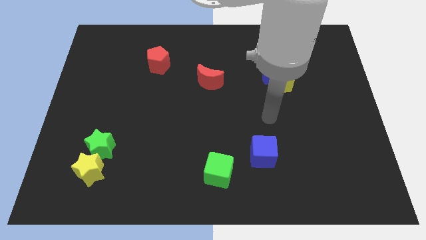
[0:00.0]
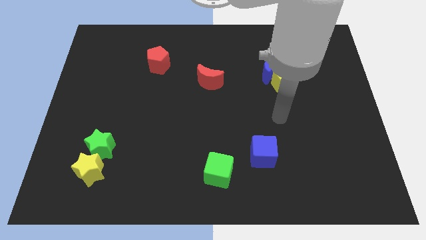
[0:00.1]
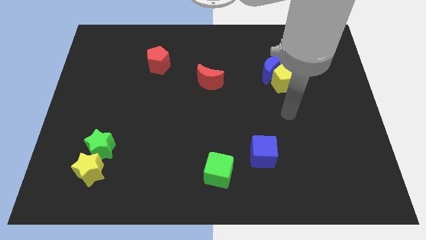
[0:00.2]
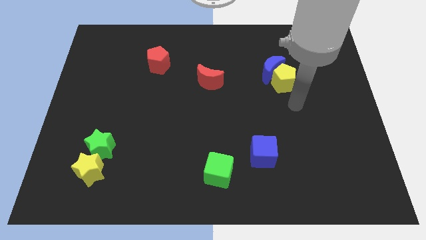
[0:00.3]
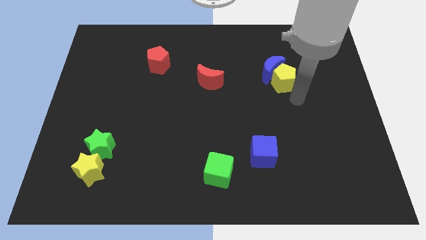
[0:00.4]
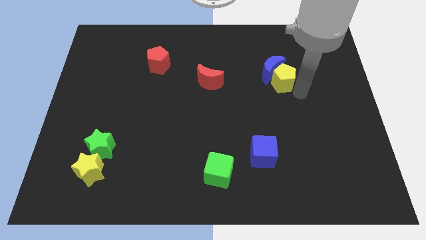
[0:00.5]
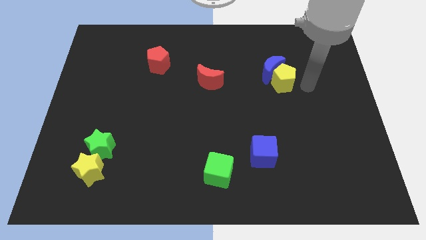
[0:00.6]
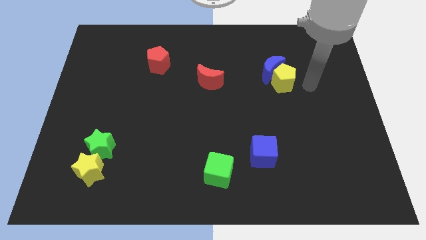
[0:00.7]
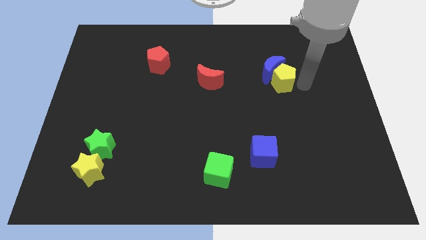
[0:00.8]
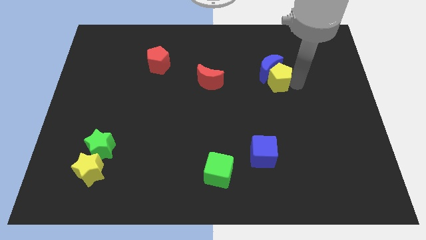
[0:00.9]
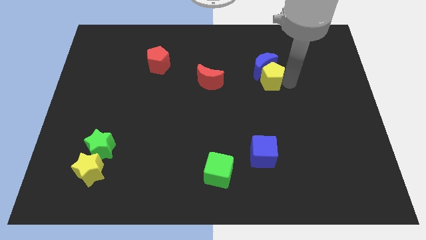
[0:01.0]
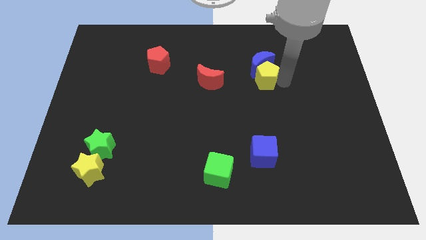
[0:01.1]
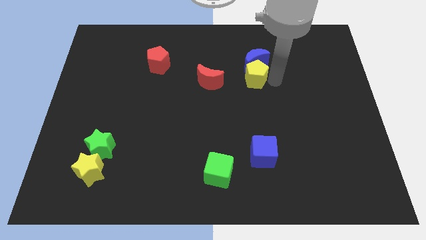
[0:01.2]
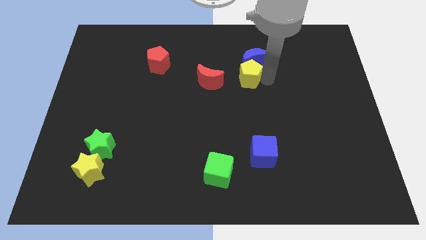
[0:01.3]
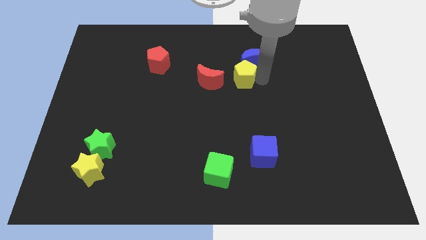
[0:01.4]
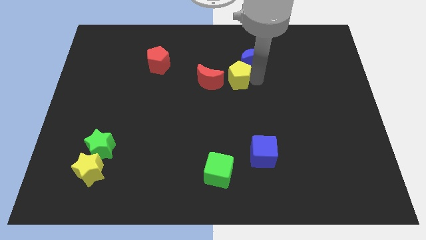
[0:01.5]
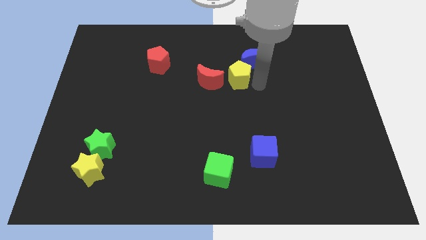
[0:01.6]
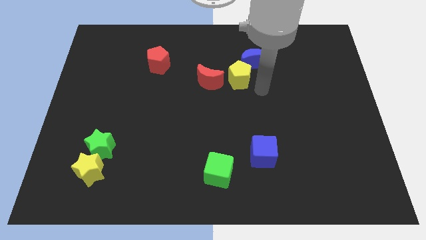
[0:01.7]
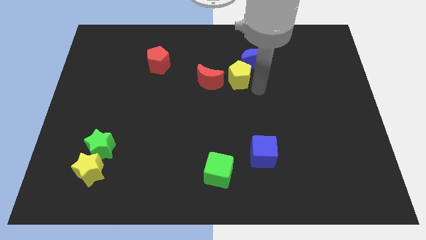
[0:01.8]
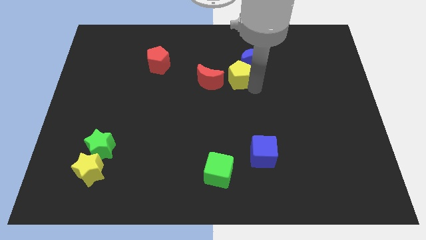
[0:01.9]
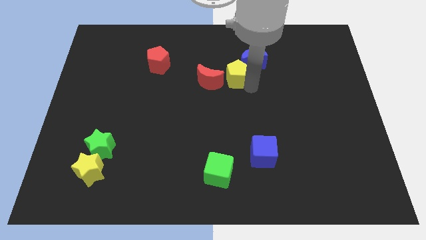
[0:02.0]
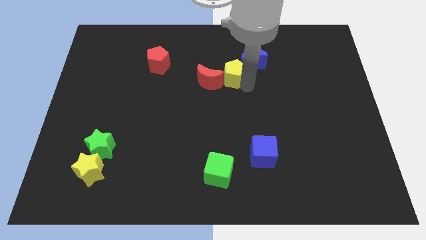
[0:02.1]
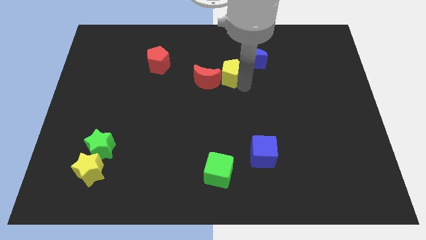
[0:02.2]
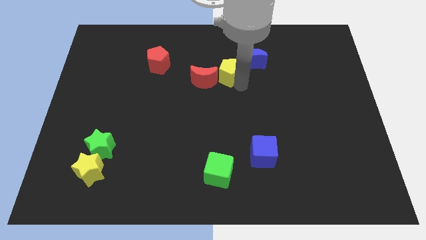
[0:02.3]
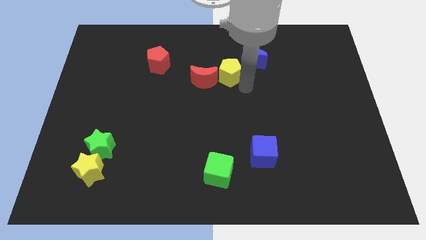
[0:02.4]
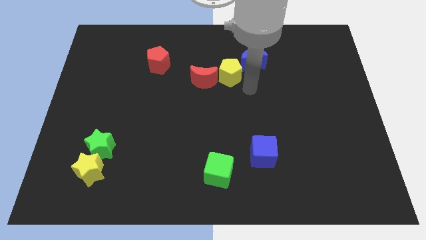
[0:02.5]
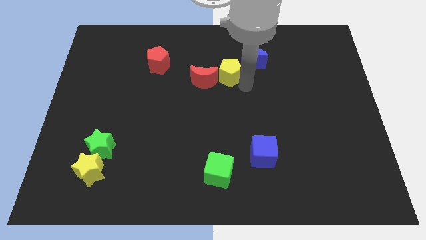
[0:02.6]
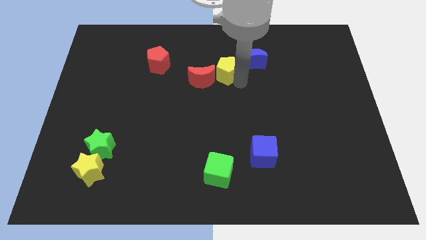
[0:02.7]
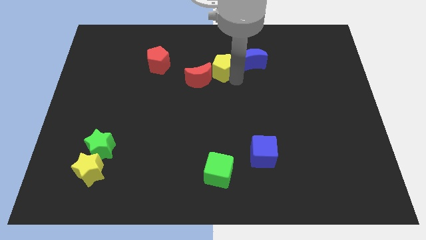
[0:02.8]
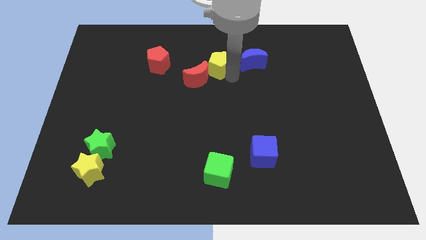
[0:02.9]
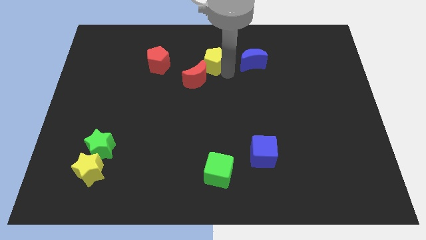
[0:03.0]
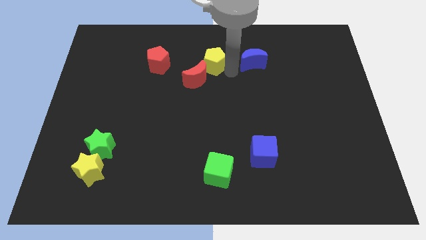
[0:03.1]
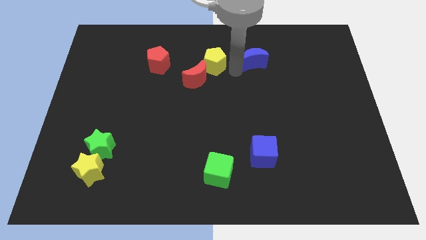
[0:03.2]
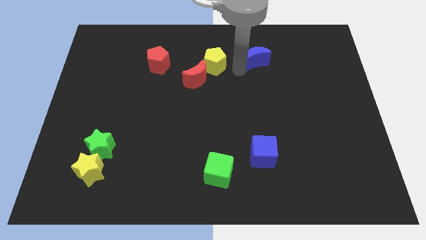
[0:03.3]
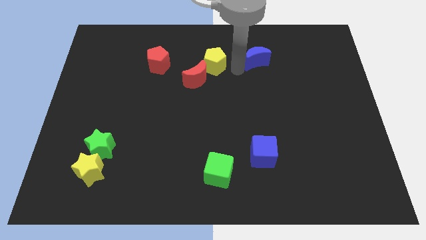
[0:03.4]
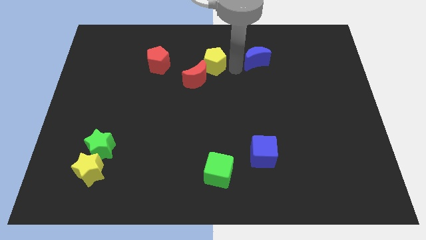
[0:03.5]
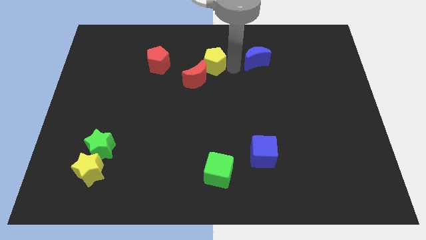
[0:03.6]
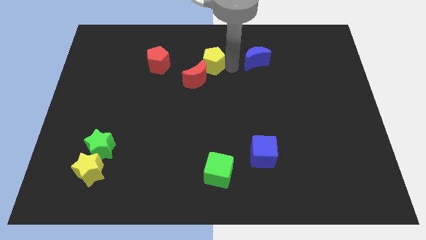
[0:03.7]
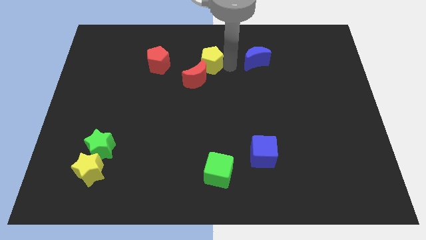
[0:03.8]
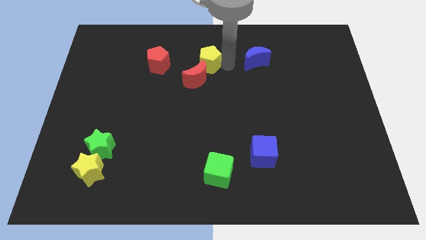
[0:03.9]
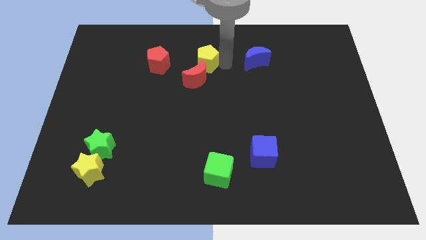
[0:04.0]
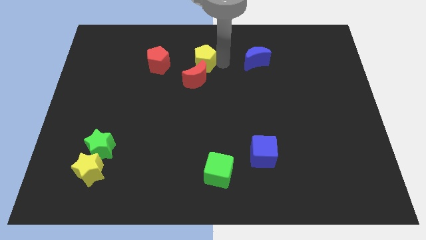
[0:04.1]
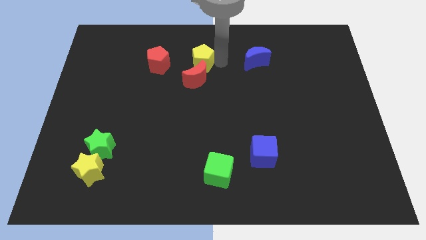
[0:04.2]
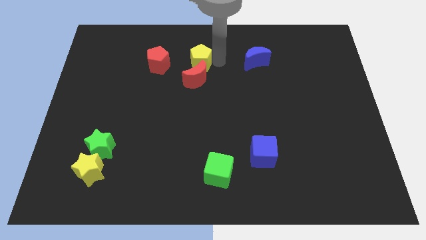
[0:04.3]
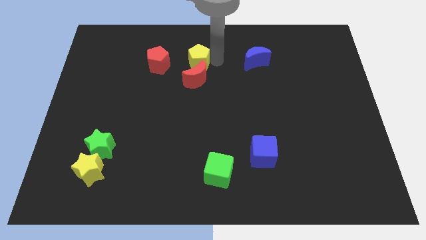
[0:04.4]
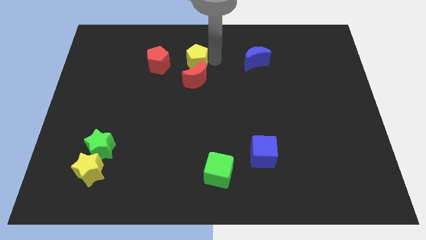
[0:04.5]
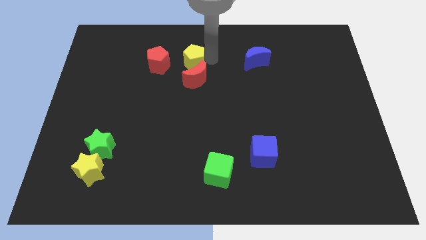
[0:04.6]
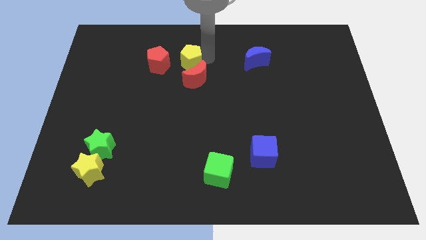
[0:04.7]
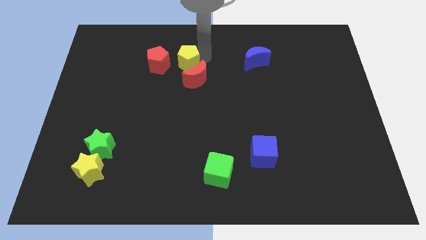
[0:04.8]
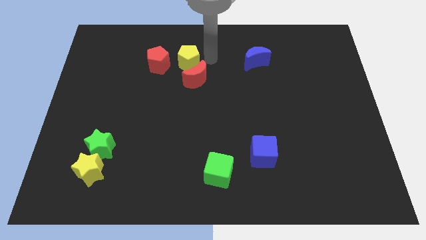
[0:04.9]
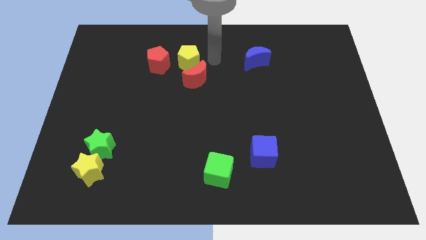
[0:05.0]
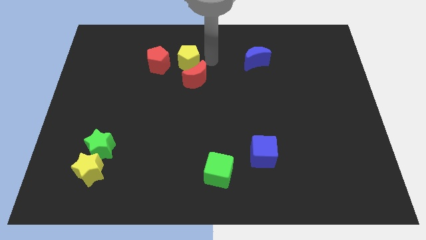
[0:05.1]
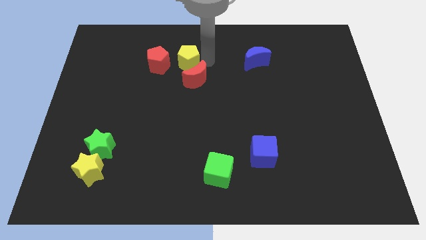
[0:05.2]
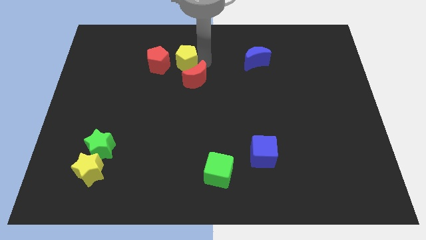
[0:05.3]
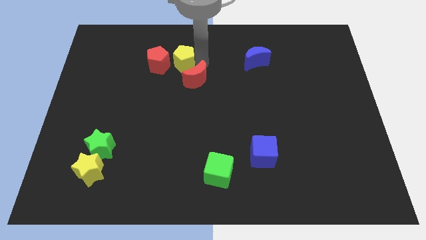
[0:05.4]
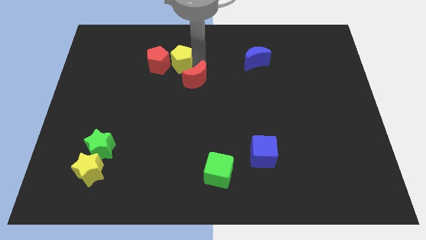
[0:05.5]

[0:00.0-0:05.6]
move the yellow pentagon close to the red pentagon

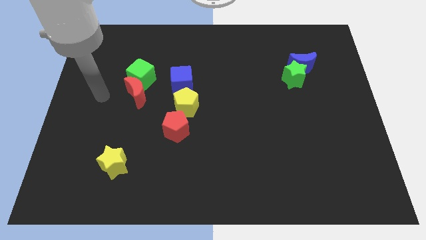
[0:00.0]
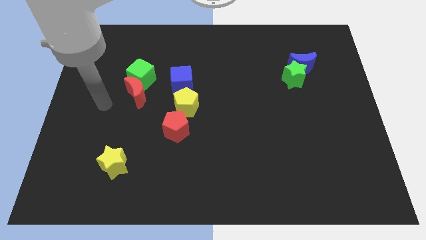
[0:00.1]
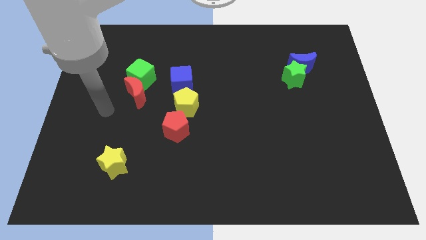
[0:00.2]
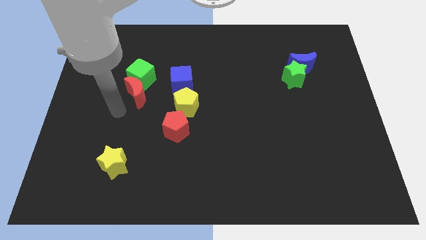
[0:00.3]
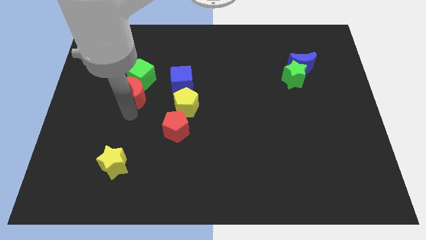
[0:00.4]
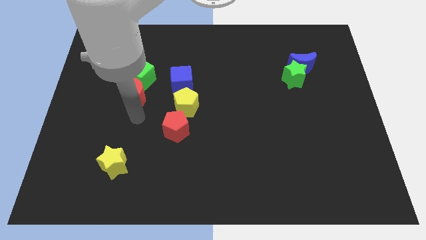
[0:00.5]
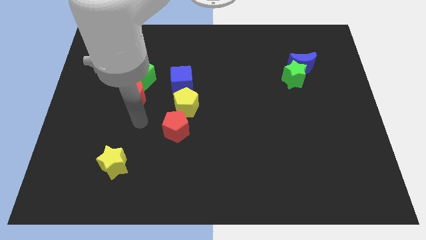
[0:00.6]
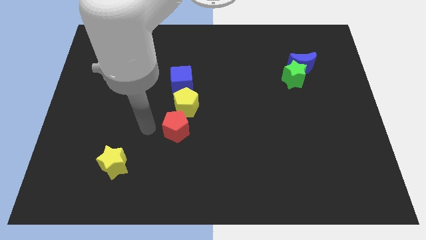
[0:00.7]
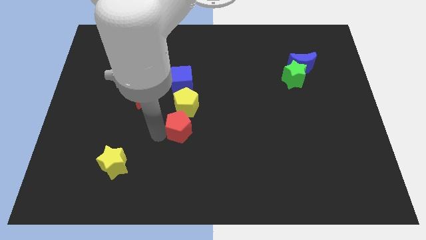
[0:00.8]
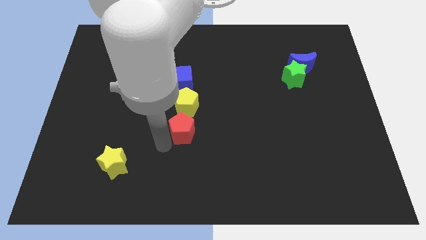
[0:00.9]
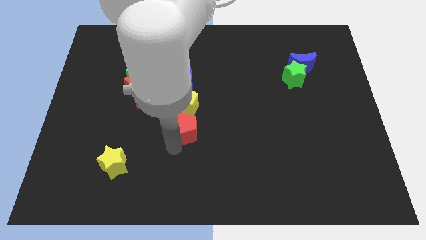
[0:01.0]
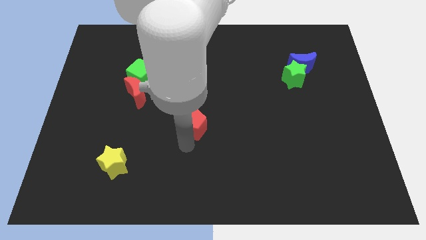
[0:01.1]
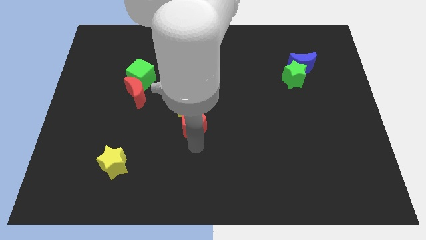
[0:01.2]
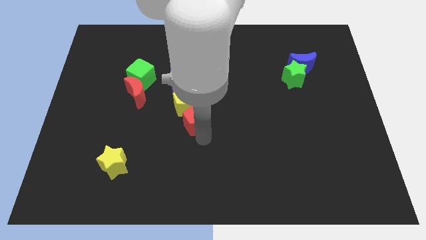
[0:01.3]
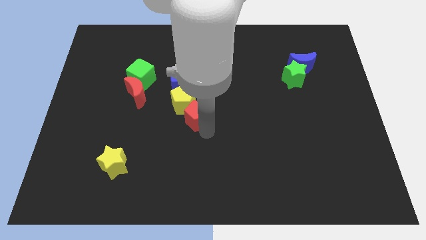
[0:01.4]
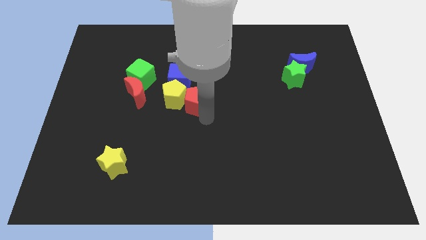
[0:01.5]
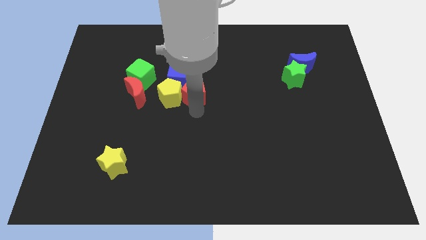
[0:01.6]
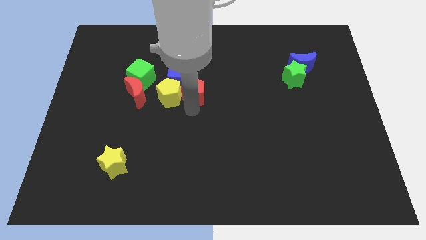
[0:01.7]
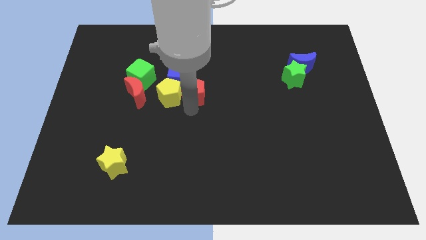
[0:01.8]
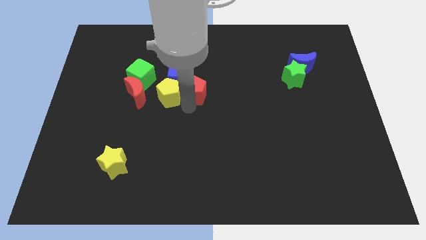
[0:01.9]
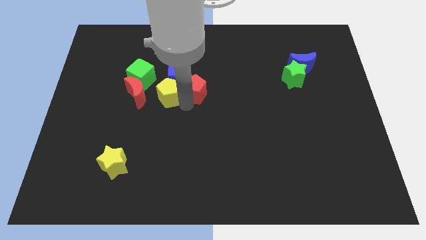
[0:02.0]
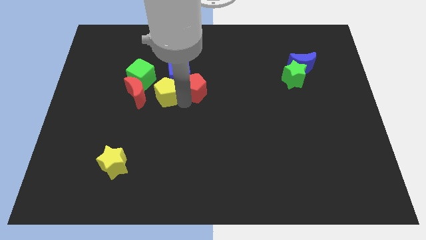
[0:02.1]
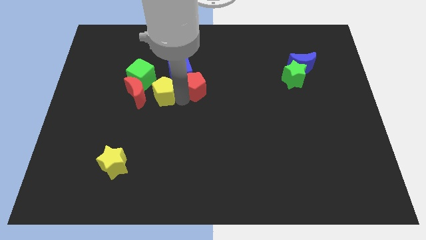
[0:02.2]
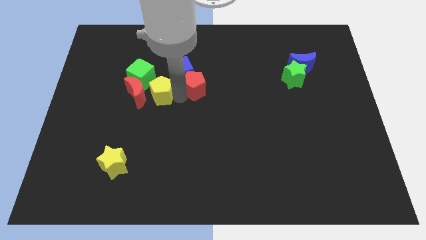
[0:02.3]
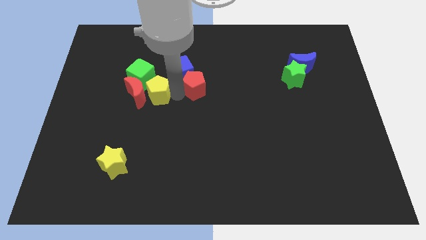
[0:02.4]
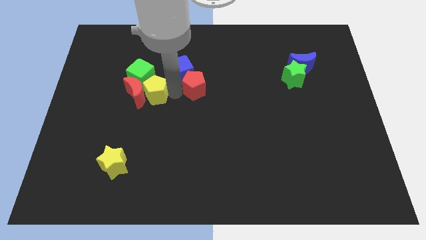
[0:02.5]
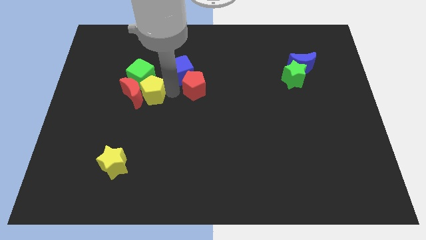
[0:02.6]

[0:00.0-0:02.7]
push the yellow pentagon towards the green cube
